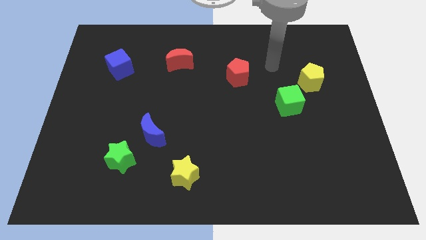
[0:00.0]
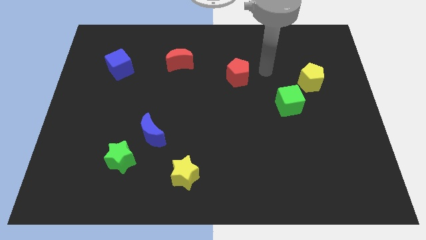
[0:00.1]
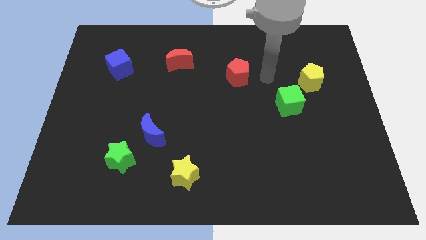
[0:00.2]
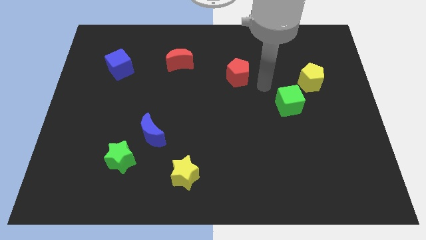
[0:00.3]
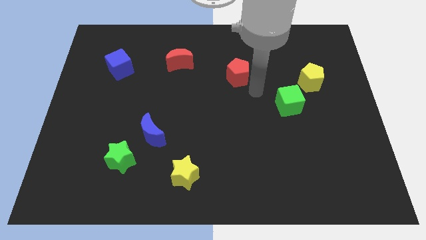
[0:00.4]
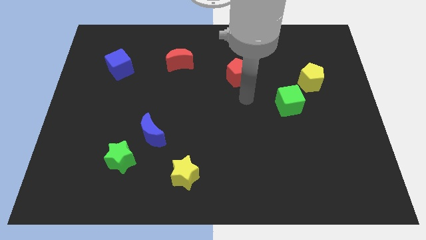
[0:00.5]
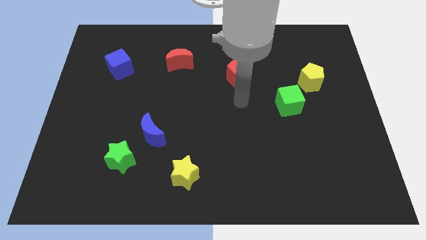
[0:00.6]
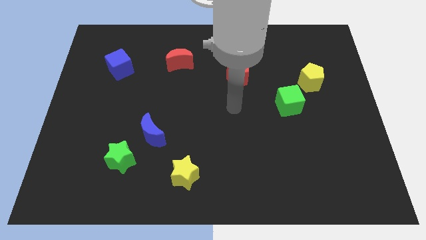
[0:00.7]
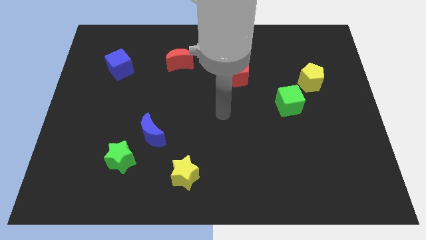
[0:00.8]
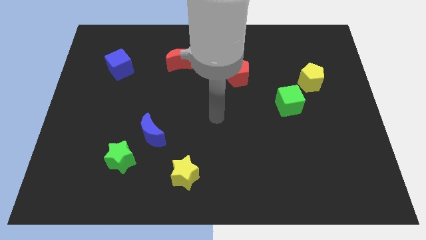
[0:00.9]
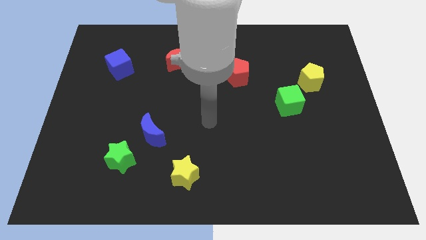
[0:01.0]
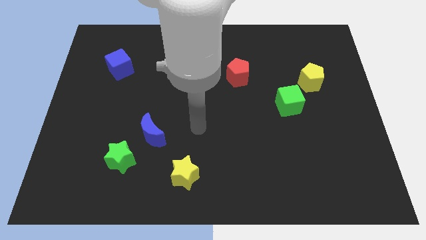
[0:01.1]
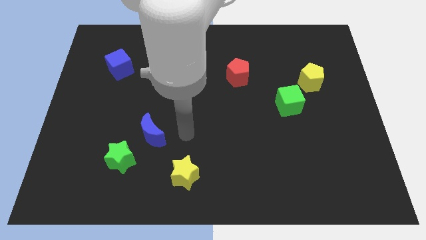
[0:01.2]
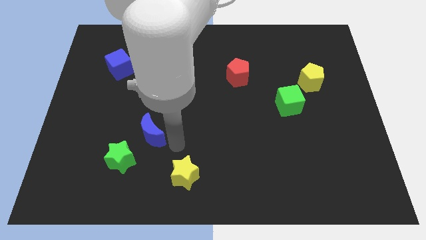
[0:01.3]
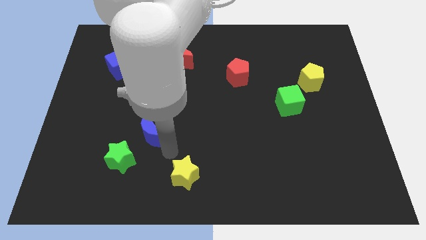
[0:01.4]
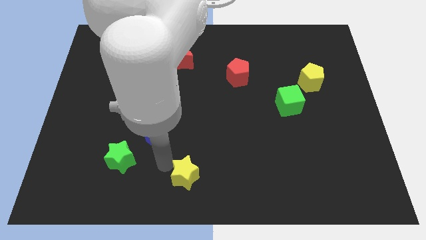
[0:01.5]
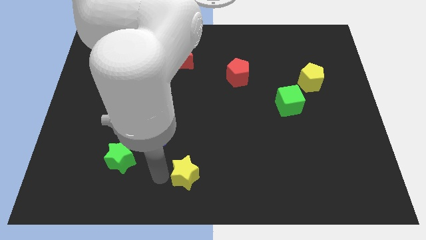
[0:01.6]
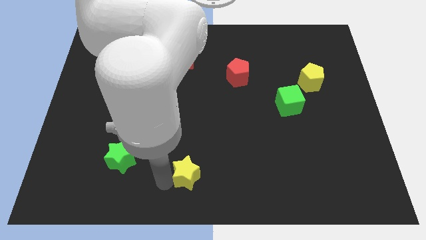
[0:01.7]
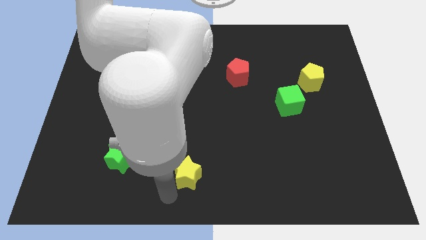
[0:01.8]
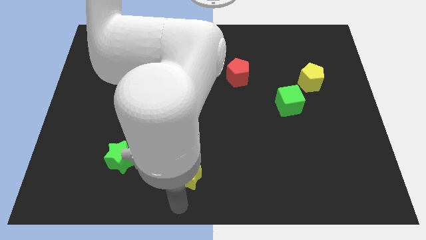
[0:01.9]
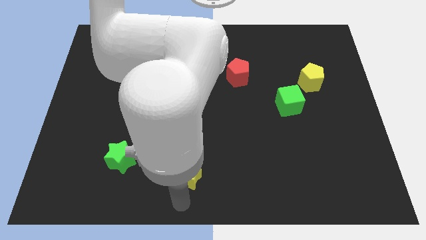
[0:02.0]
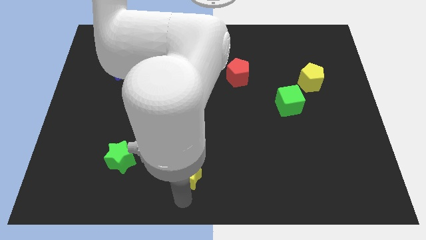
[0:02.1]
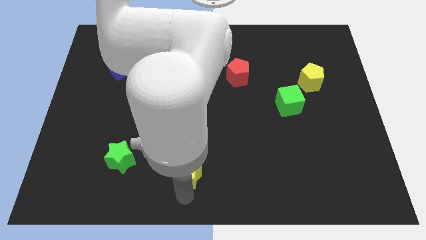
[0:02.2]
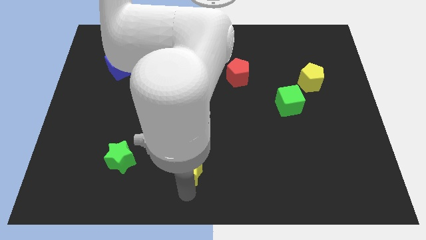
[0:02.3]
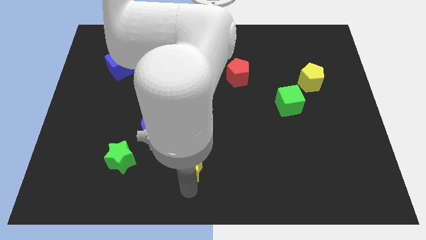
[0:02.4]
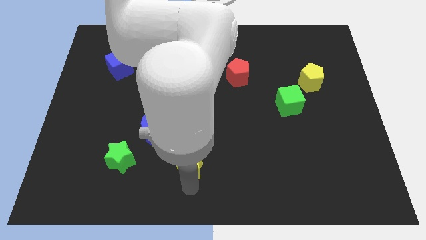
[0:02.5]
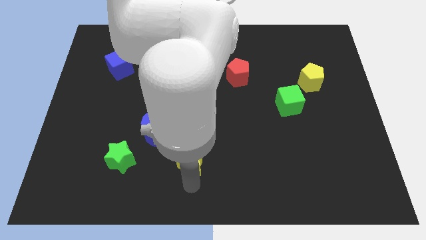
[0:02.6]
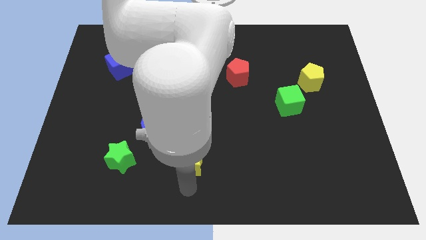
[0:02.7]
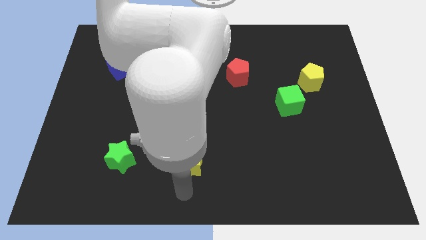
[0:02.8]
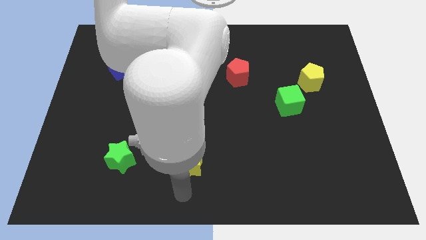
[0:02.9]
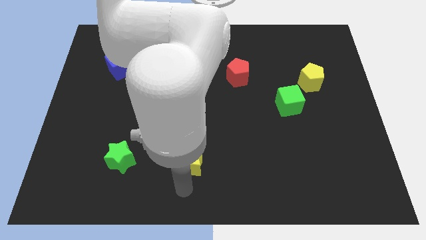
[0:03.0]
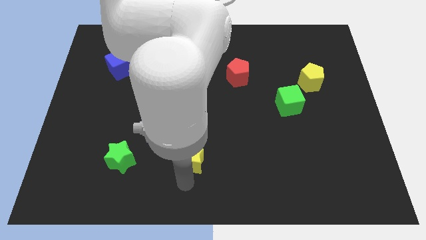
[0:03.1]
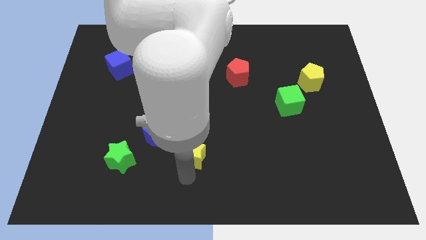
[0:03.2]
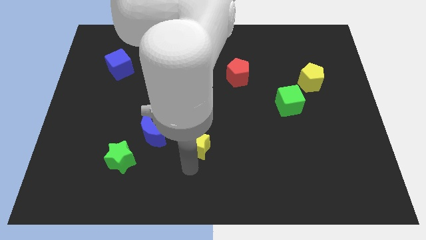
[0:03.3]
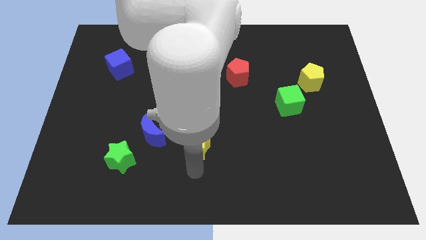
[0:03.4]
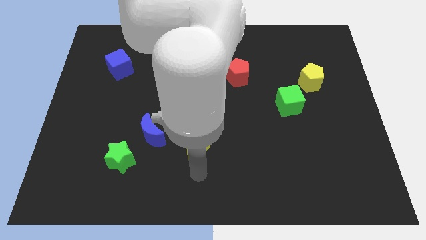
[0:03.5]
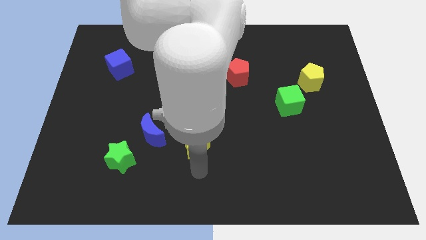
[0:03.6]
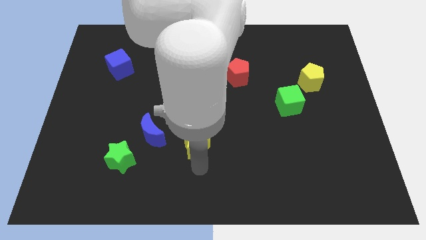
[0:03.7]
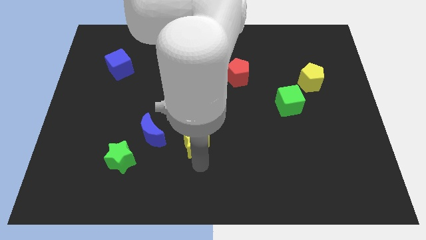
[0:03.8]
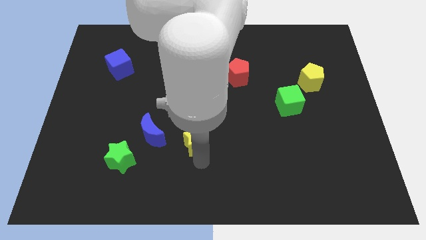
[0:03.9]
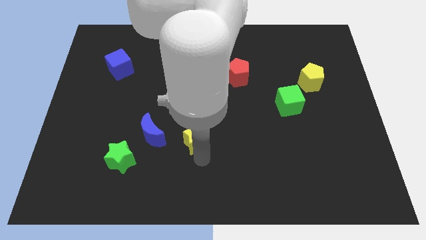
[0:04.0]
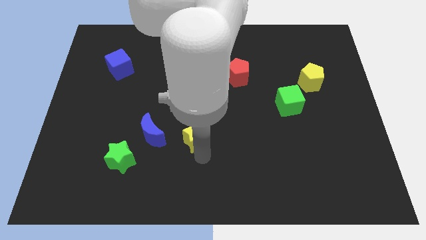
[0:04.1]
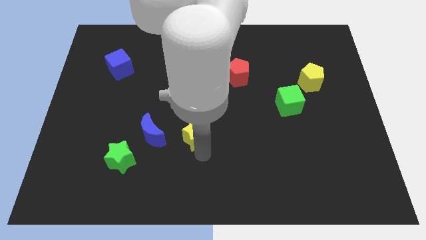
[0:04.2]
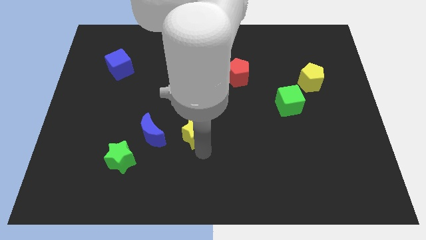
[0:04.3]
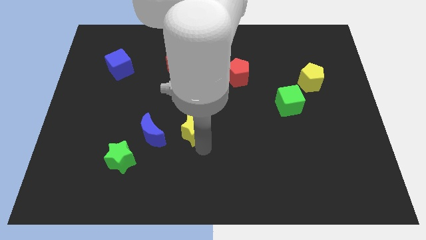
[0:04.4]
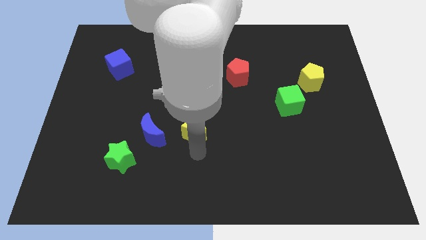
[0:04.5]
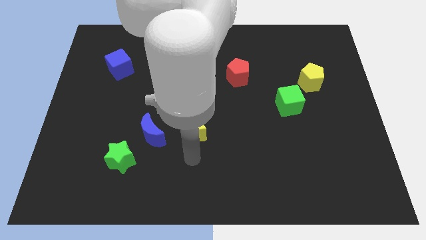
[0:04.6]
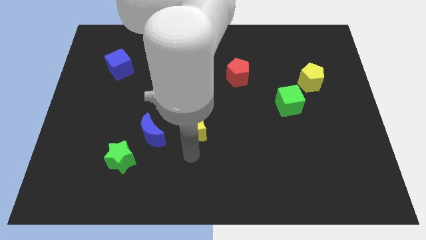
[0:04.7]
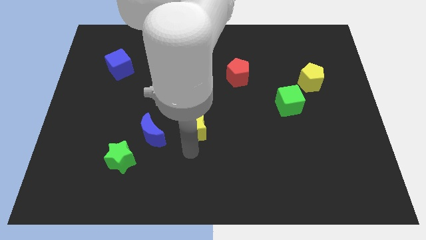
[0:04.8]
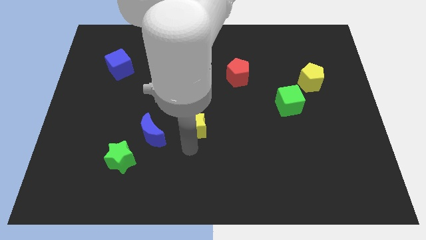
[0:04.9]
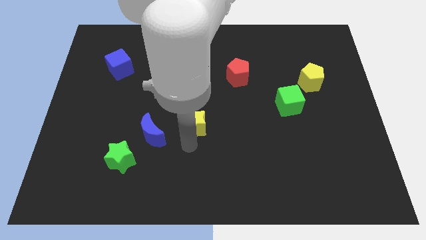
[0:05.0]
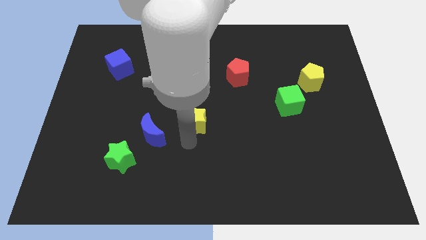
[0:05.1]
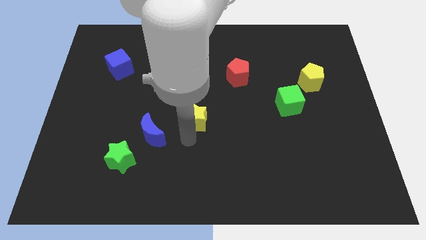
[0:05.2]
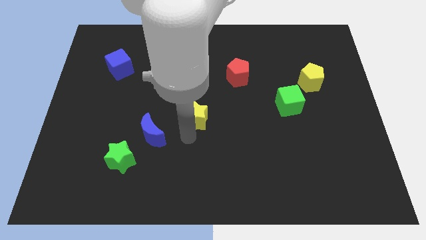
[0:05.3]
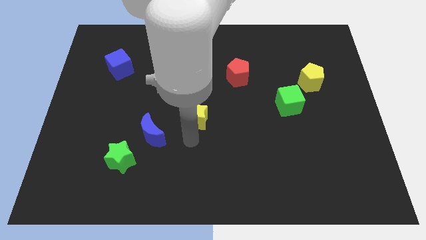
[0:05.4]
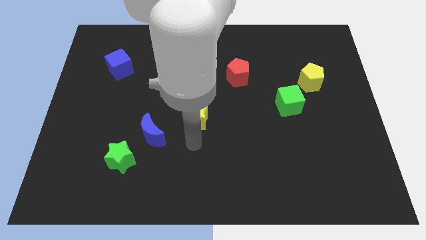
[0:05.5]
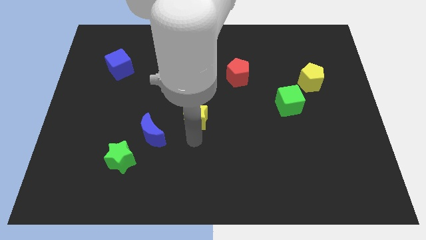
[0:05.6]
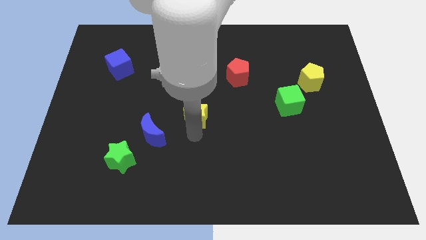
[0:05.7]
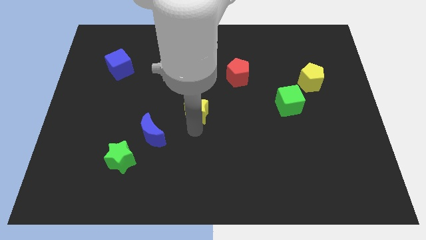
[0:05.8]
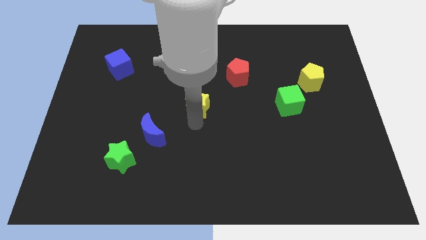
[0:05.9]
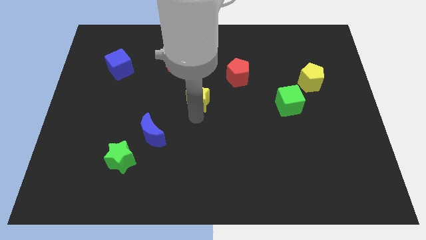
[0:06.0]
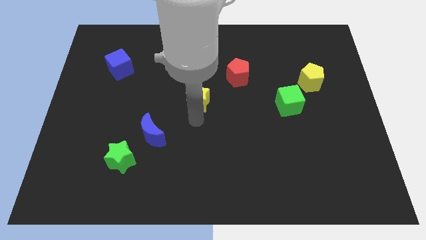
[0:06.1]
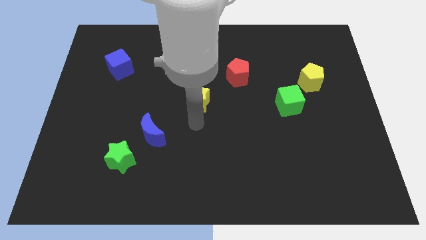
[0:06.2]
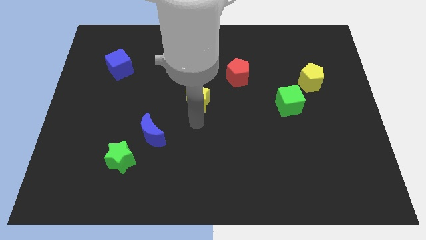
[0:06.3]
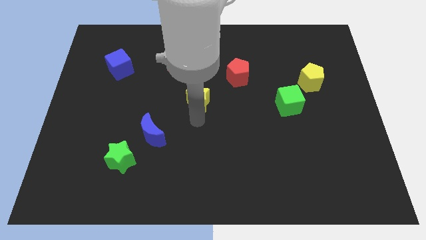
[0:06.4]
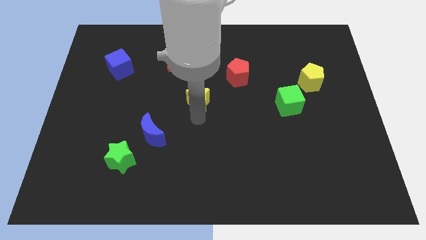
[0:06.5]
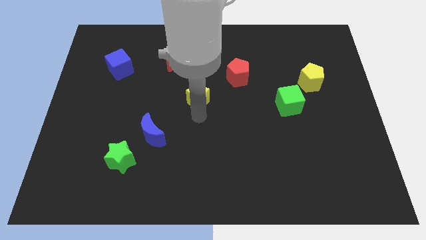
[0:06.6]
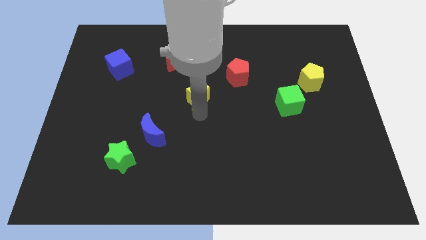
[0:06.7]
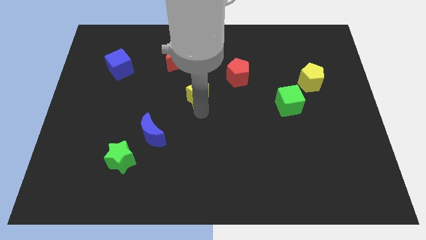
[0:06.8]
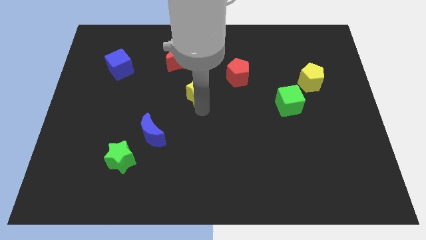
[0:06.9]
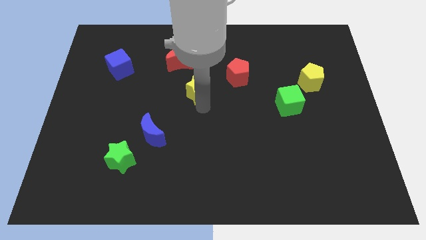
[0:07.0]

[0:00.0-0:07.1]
push the yellow star diagonally down and to the right of the red moon
